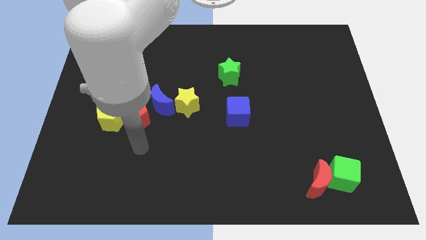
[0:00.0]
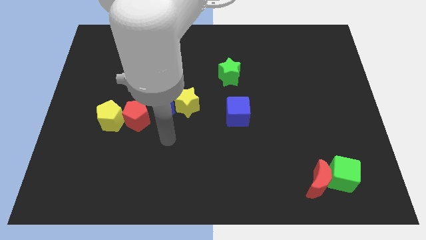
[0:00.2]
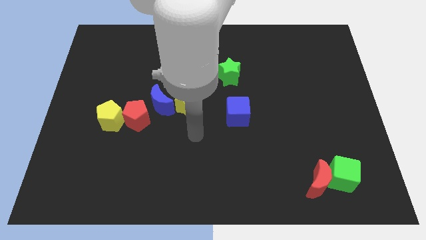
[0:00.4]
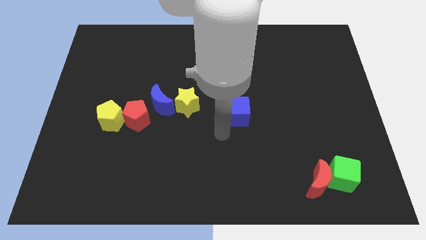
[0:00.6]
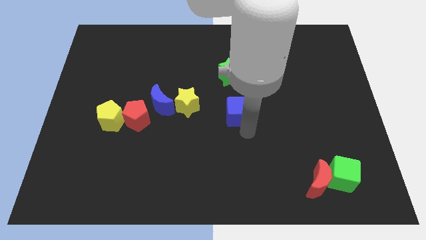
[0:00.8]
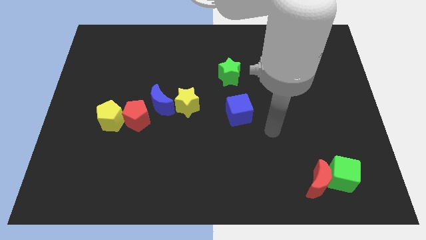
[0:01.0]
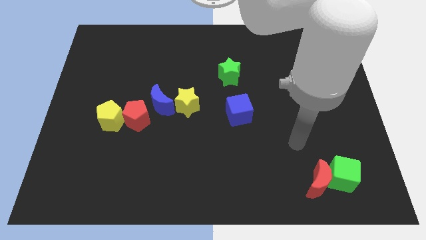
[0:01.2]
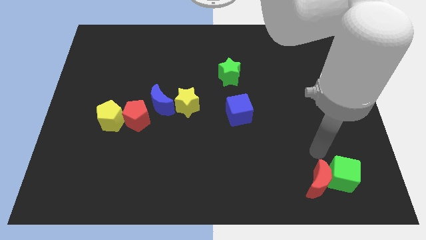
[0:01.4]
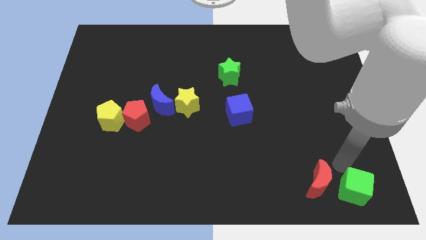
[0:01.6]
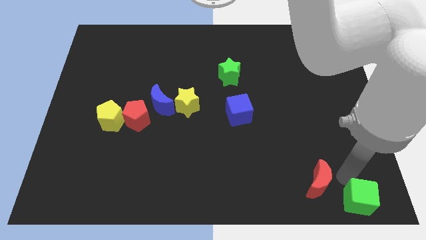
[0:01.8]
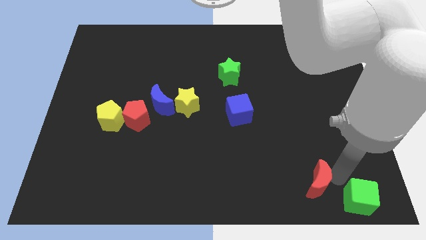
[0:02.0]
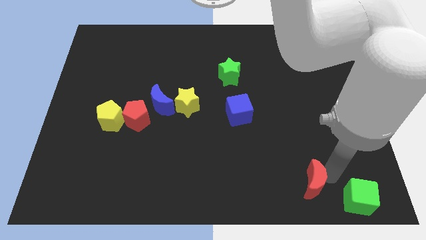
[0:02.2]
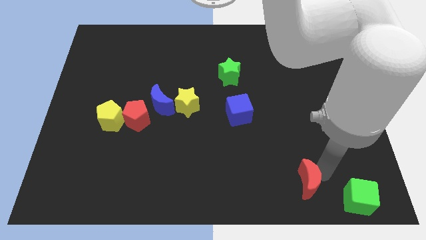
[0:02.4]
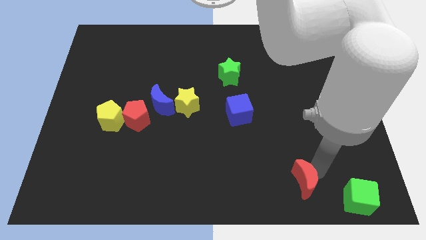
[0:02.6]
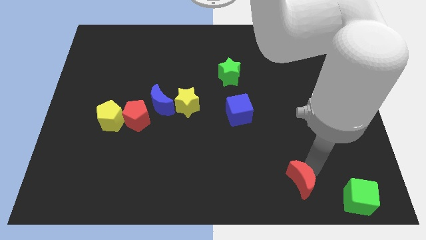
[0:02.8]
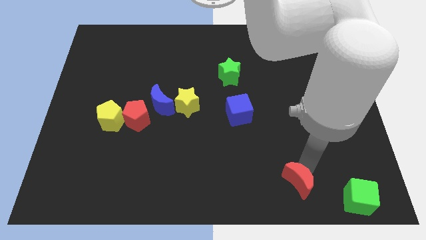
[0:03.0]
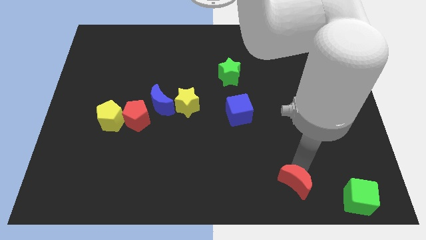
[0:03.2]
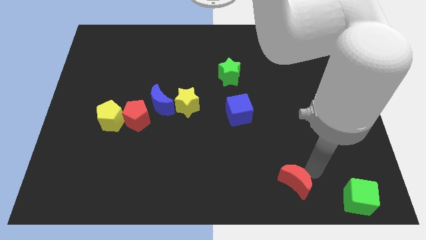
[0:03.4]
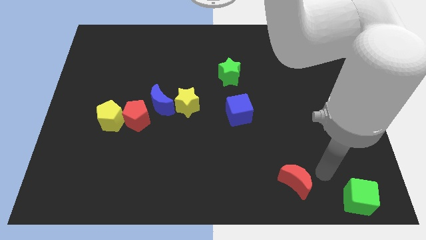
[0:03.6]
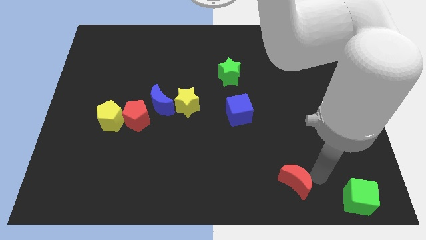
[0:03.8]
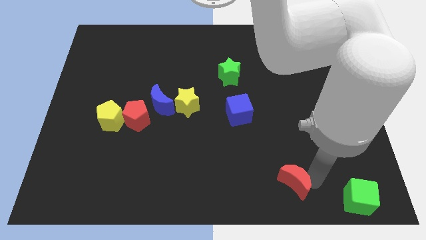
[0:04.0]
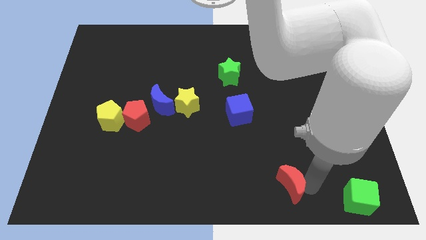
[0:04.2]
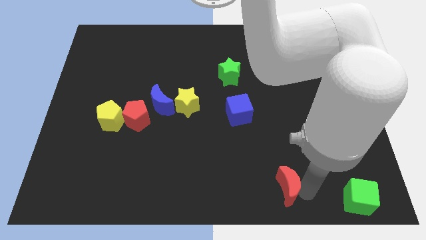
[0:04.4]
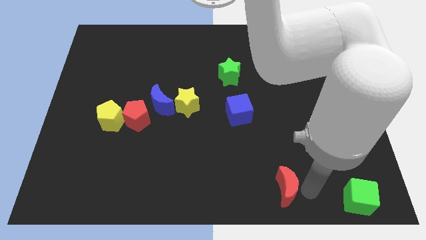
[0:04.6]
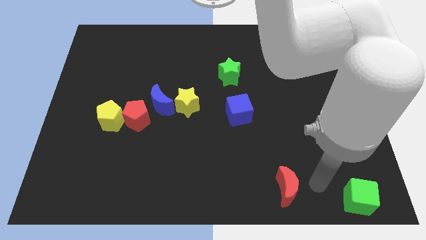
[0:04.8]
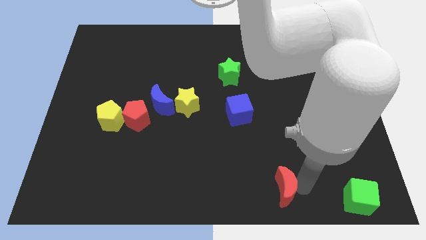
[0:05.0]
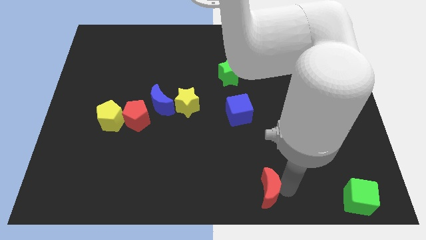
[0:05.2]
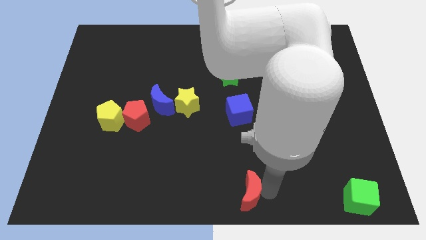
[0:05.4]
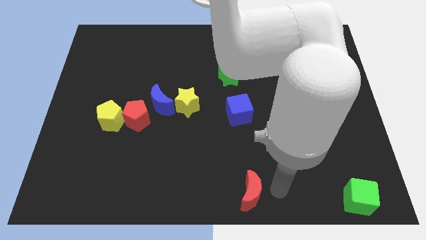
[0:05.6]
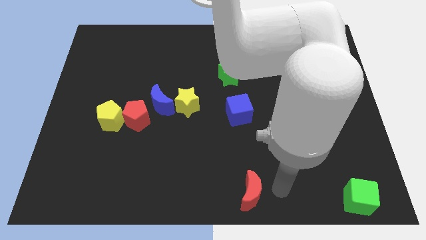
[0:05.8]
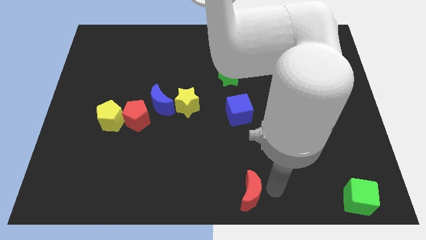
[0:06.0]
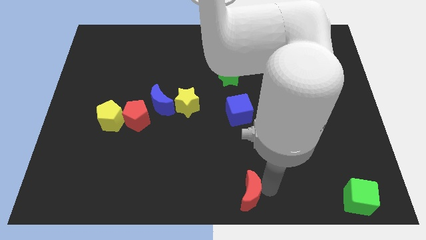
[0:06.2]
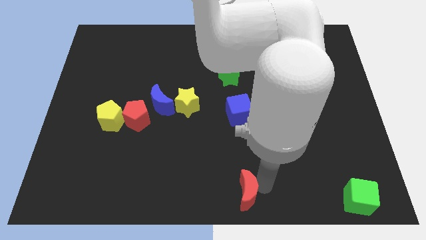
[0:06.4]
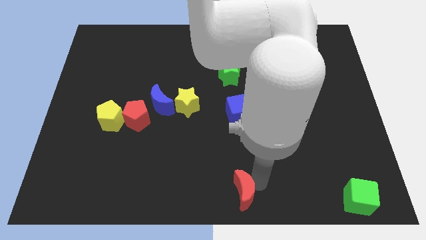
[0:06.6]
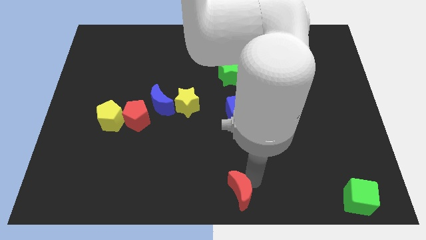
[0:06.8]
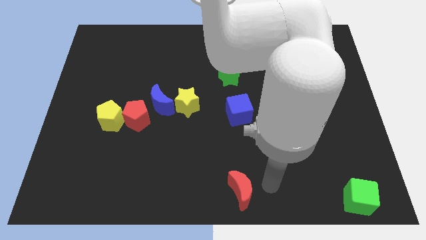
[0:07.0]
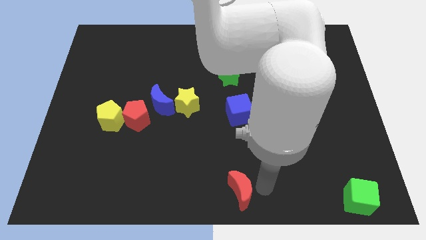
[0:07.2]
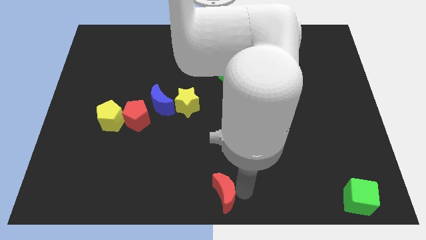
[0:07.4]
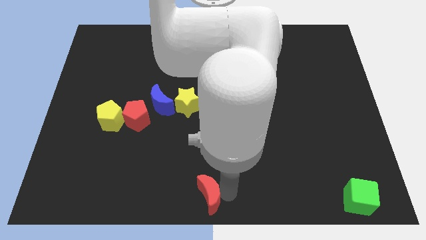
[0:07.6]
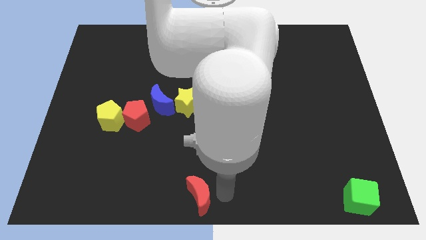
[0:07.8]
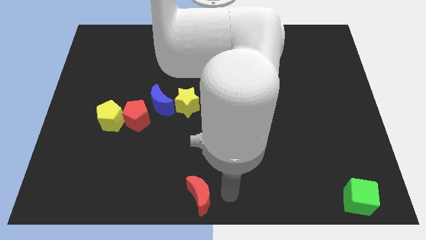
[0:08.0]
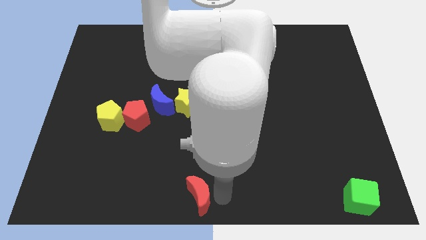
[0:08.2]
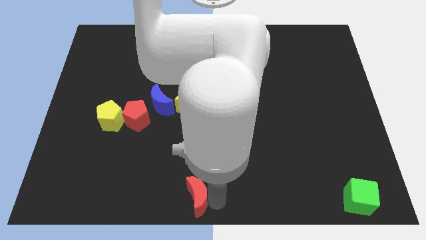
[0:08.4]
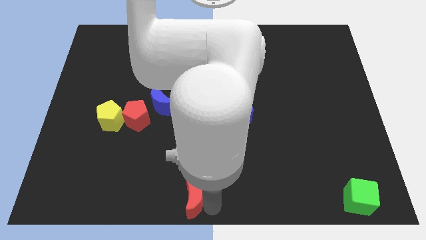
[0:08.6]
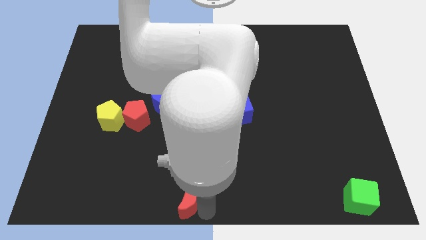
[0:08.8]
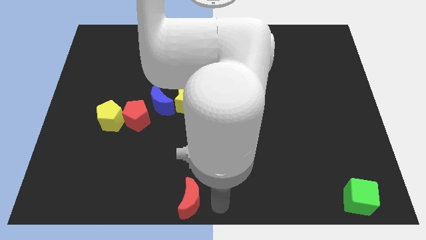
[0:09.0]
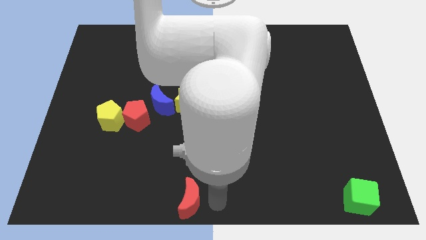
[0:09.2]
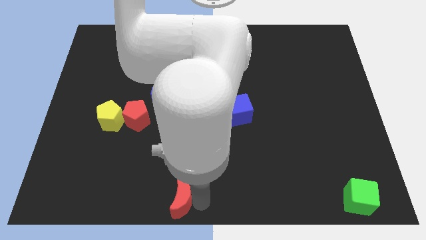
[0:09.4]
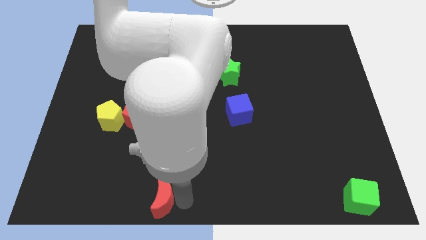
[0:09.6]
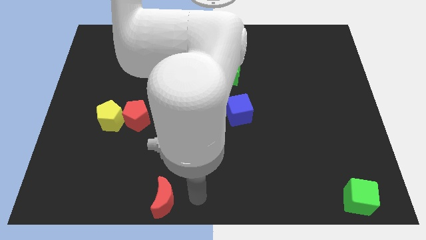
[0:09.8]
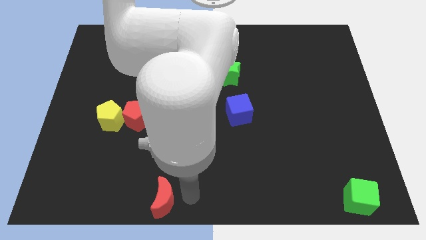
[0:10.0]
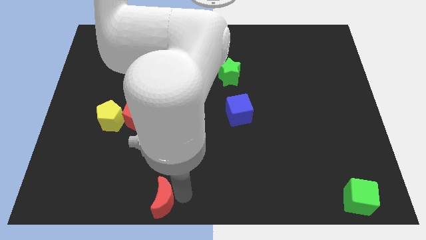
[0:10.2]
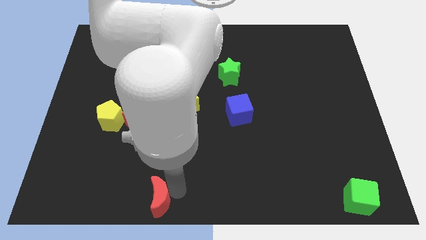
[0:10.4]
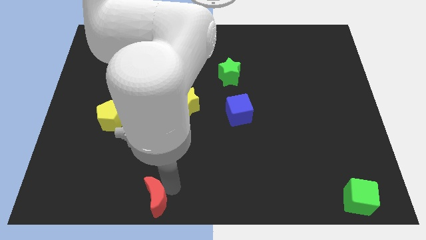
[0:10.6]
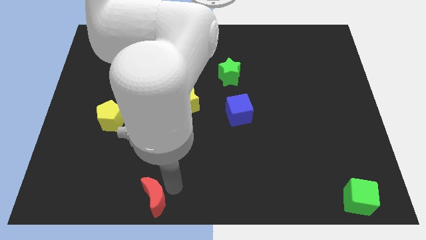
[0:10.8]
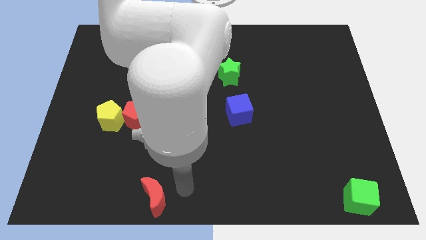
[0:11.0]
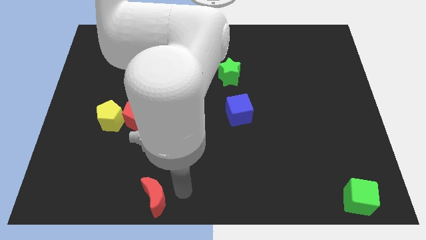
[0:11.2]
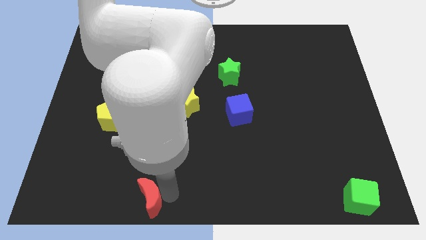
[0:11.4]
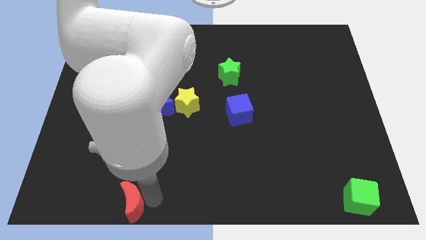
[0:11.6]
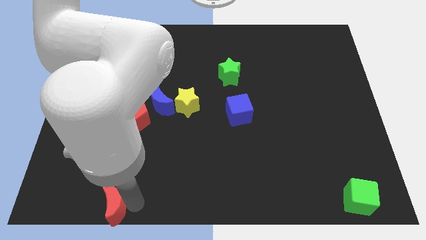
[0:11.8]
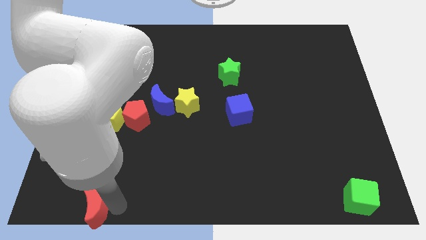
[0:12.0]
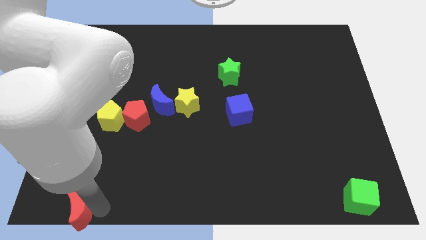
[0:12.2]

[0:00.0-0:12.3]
move the red moon to the lower left corner
